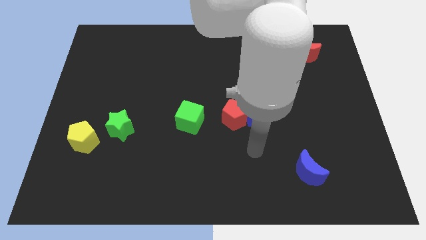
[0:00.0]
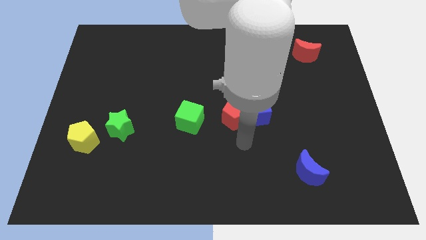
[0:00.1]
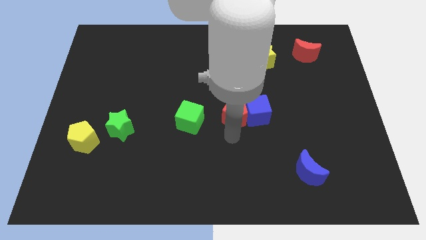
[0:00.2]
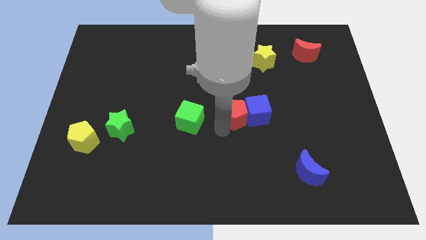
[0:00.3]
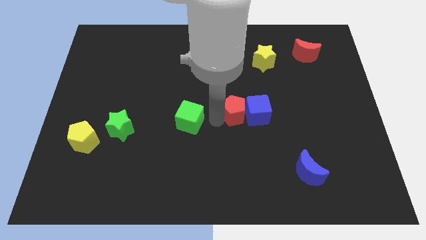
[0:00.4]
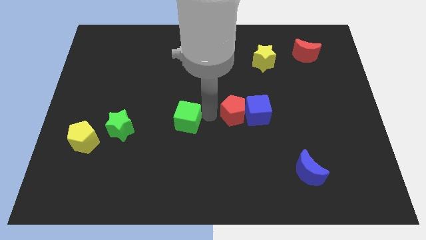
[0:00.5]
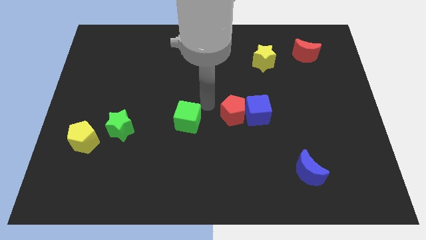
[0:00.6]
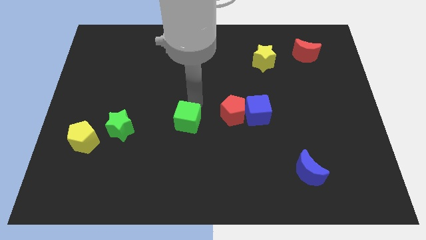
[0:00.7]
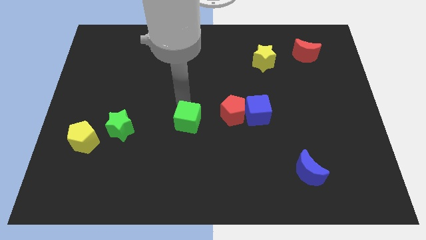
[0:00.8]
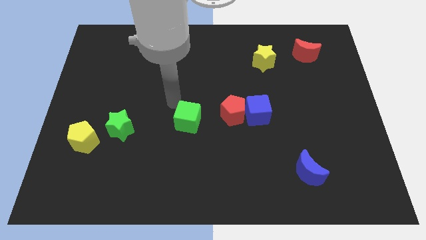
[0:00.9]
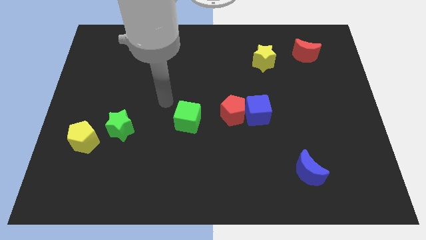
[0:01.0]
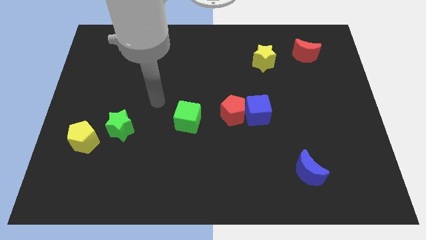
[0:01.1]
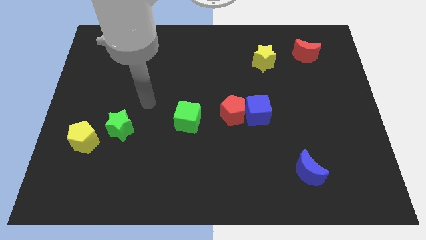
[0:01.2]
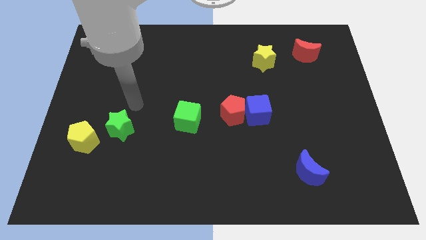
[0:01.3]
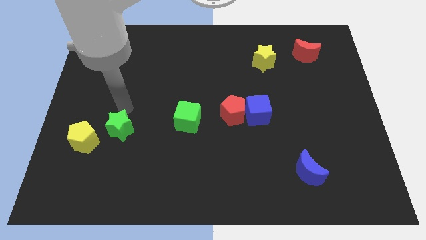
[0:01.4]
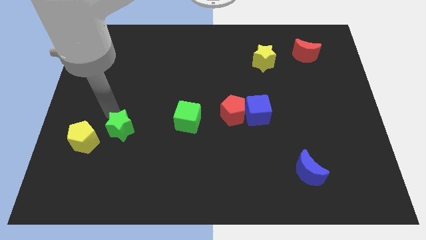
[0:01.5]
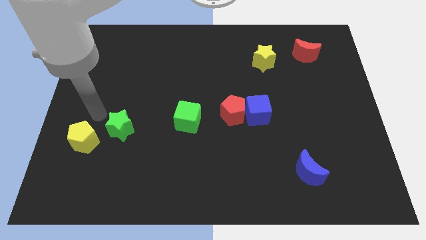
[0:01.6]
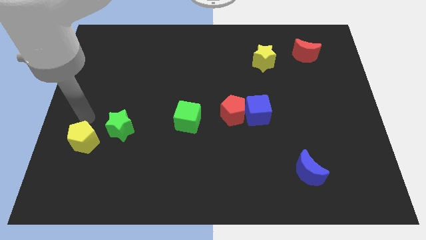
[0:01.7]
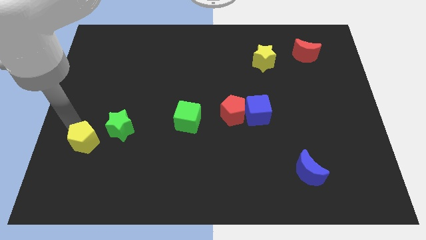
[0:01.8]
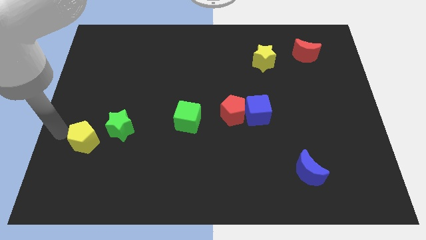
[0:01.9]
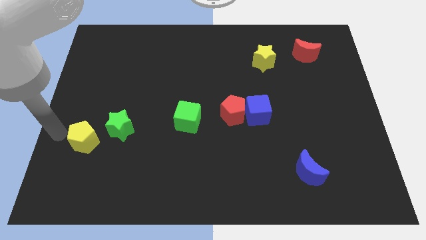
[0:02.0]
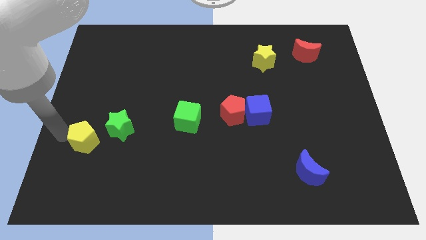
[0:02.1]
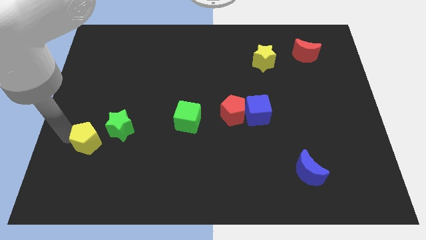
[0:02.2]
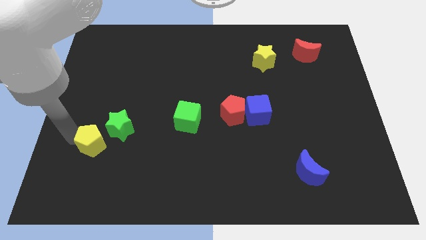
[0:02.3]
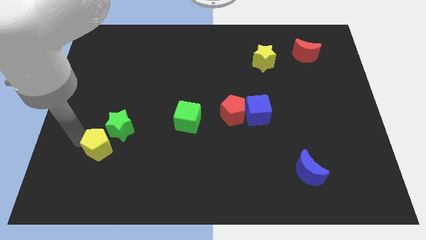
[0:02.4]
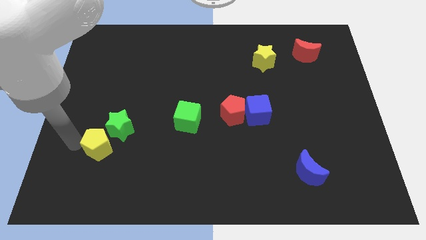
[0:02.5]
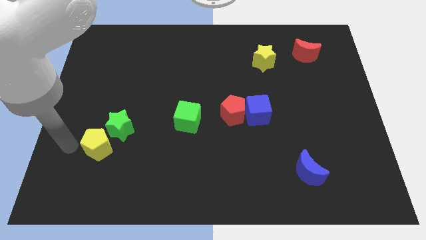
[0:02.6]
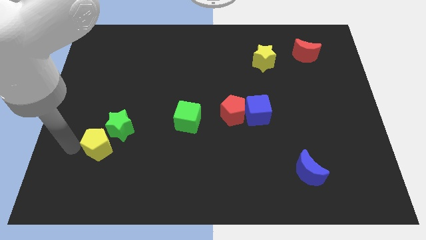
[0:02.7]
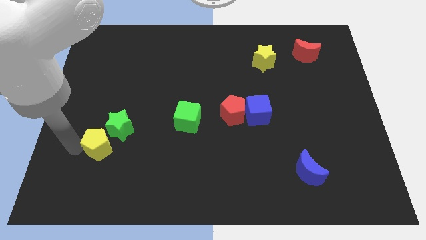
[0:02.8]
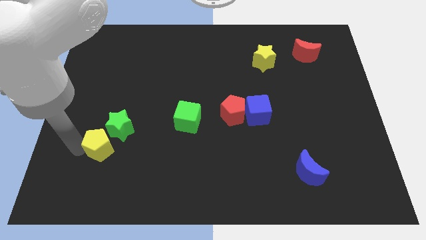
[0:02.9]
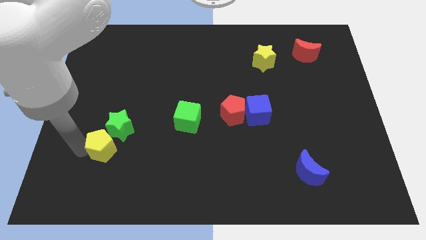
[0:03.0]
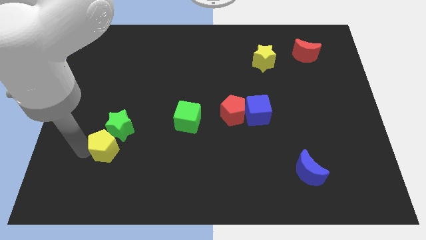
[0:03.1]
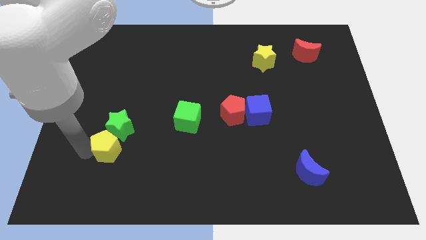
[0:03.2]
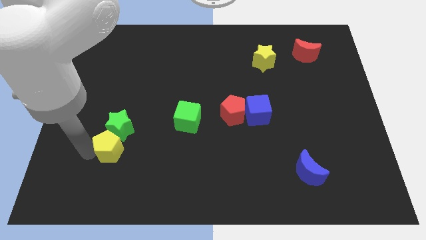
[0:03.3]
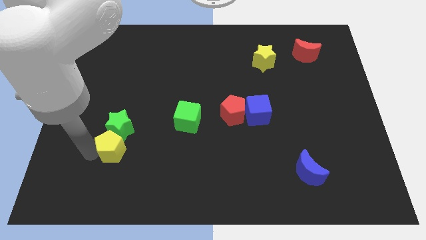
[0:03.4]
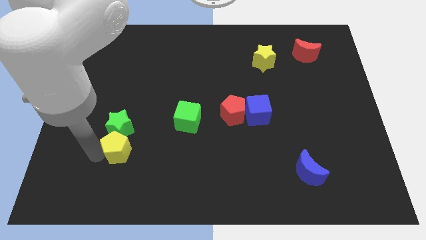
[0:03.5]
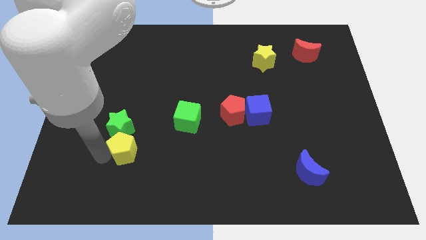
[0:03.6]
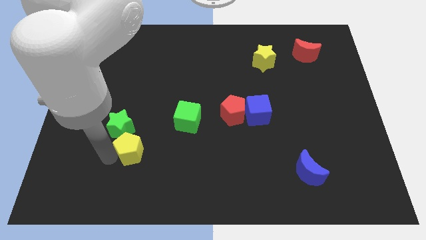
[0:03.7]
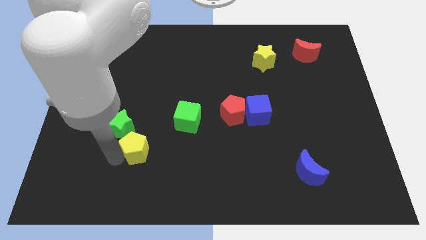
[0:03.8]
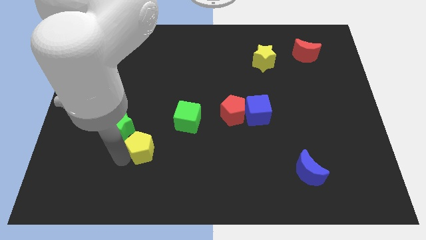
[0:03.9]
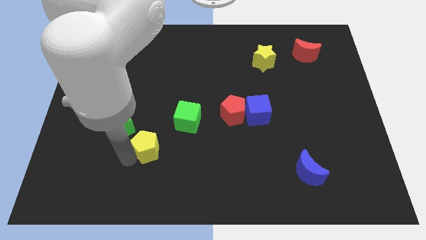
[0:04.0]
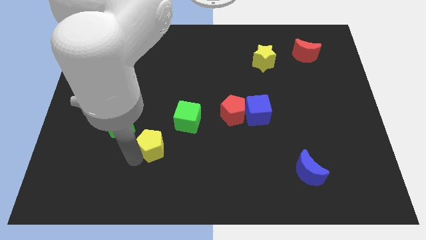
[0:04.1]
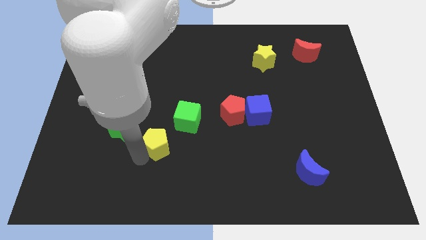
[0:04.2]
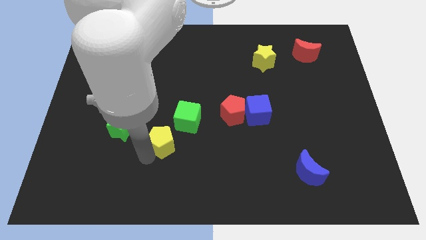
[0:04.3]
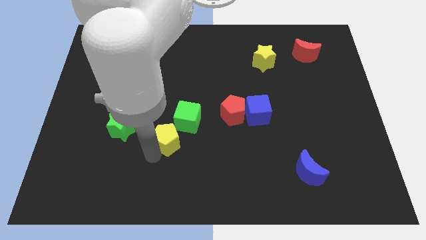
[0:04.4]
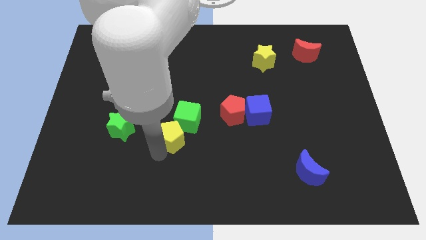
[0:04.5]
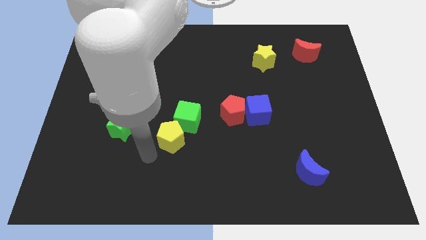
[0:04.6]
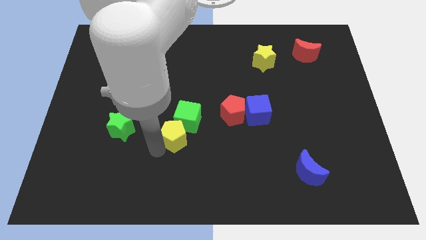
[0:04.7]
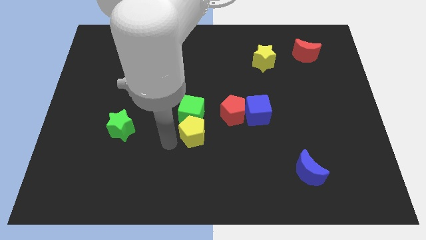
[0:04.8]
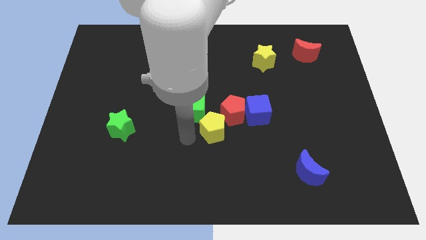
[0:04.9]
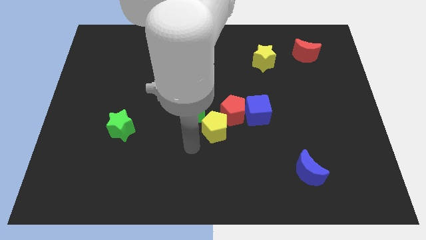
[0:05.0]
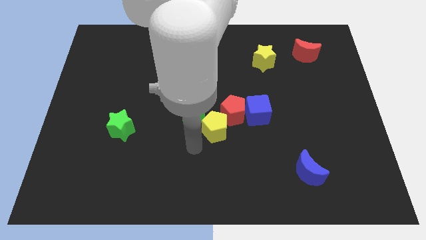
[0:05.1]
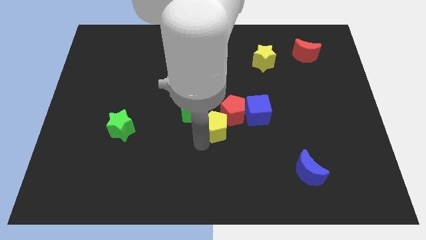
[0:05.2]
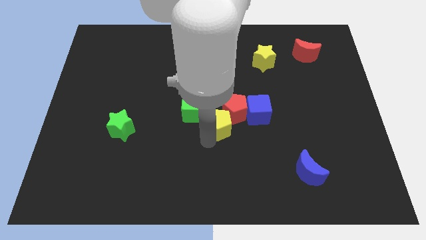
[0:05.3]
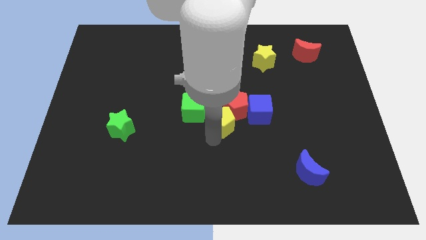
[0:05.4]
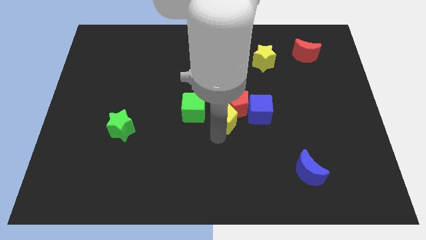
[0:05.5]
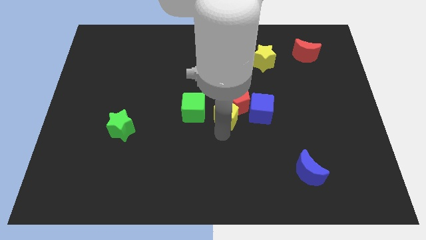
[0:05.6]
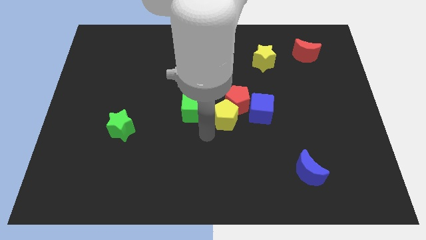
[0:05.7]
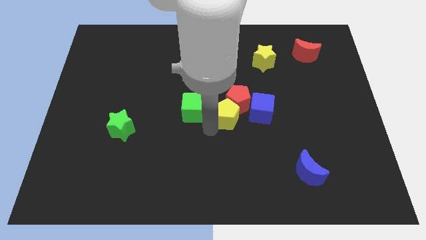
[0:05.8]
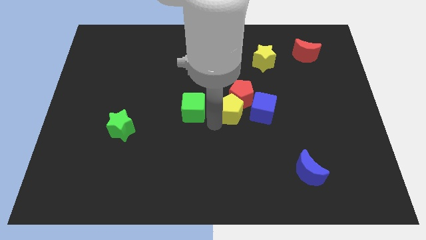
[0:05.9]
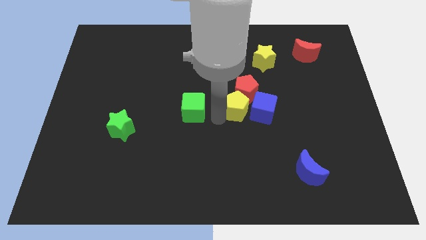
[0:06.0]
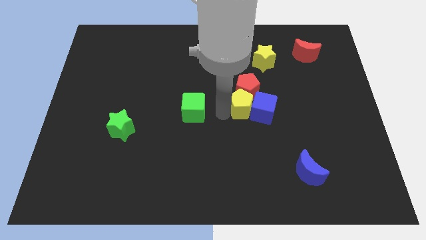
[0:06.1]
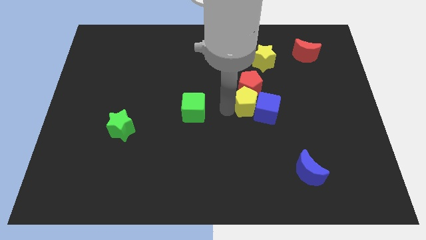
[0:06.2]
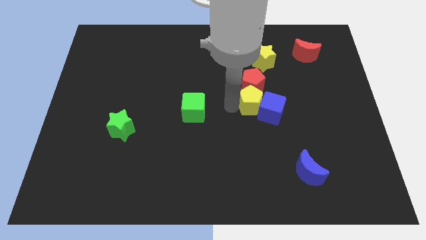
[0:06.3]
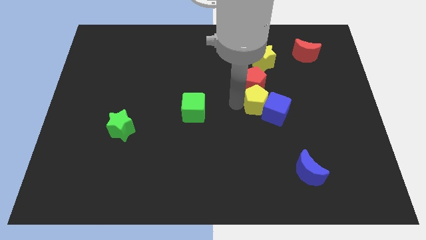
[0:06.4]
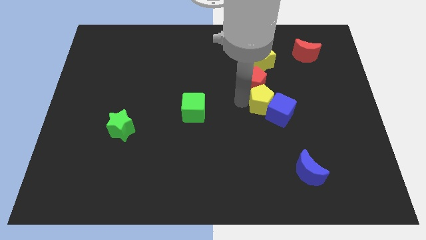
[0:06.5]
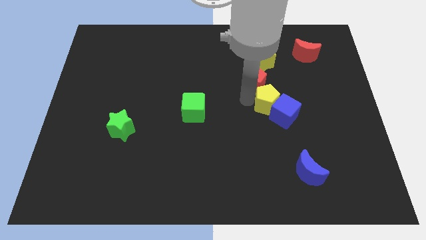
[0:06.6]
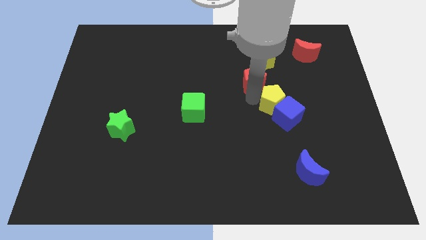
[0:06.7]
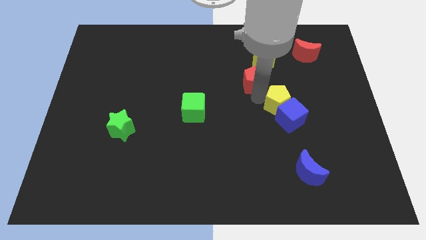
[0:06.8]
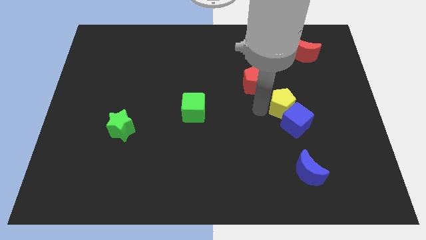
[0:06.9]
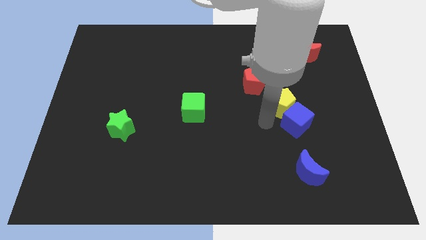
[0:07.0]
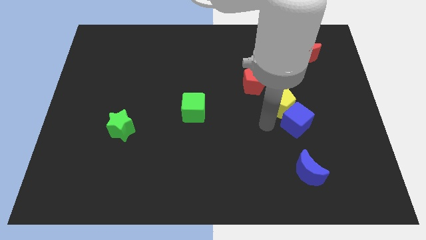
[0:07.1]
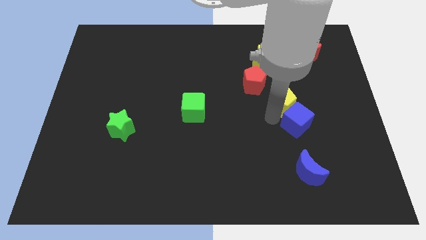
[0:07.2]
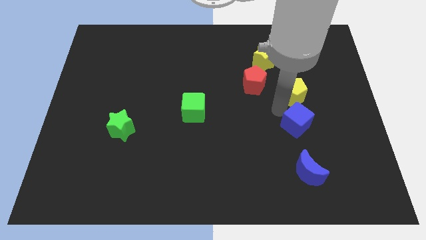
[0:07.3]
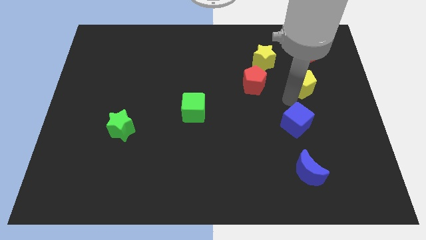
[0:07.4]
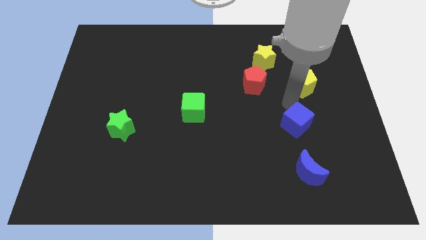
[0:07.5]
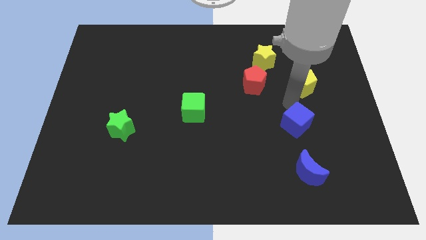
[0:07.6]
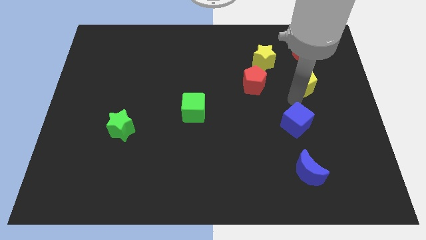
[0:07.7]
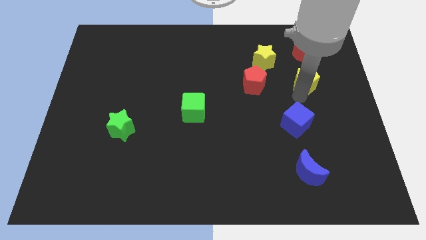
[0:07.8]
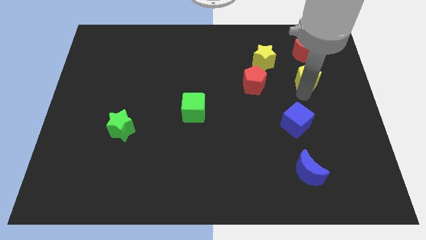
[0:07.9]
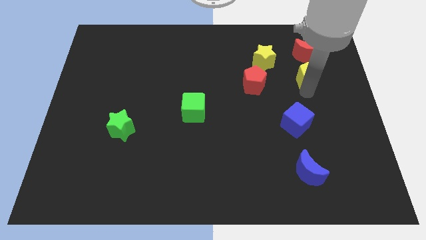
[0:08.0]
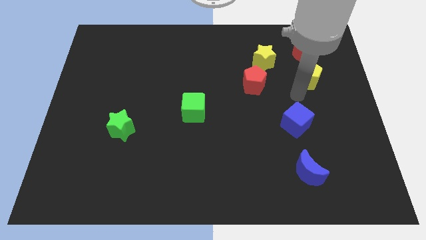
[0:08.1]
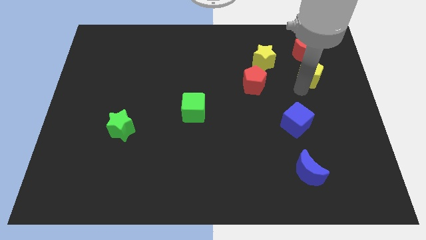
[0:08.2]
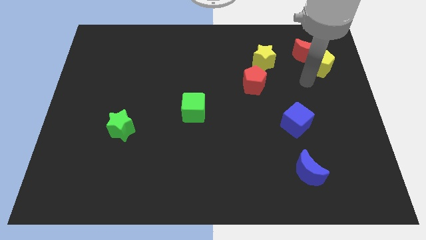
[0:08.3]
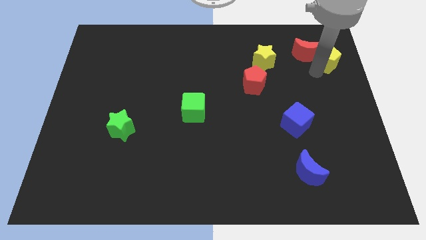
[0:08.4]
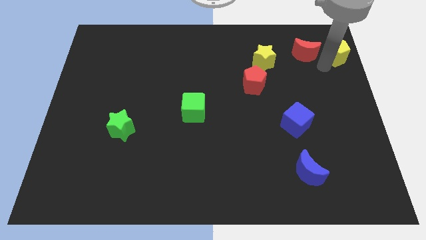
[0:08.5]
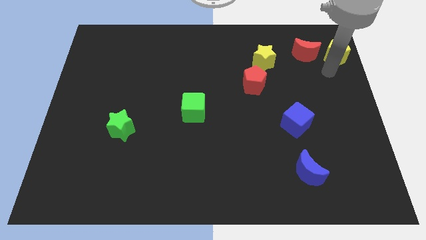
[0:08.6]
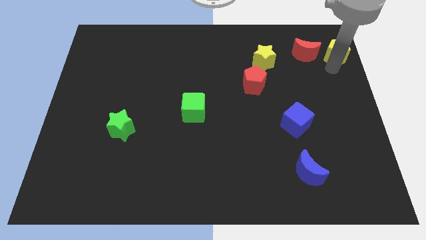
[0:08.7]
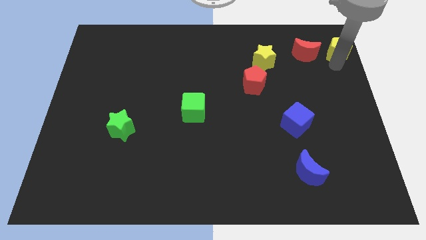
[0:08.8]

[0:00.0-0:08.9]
put the yellow pentagon to the upper right corner
